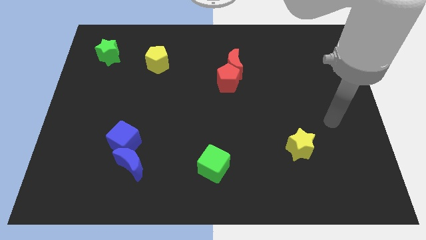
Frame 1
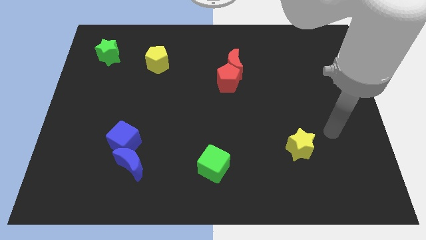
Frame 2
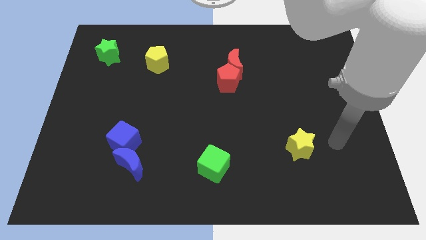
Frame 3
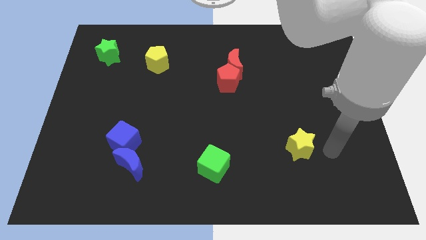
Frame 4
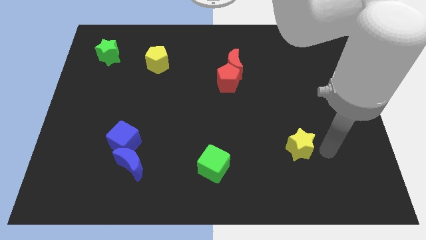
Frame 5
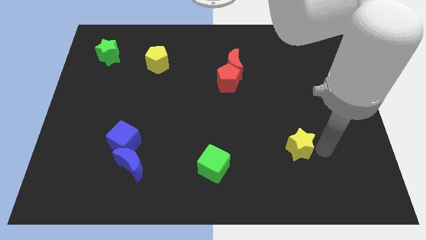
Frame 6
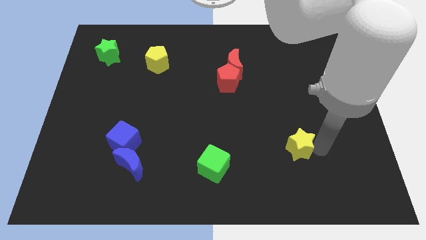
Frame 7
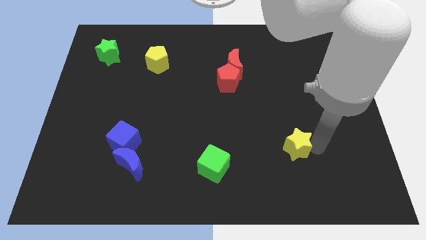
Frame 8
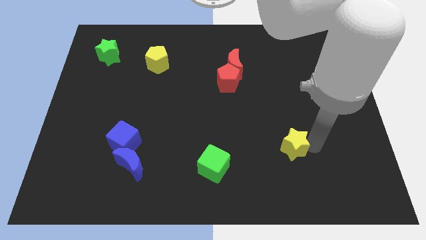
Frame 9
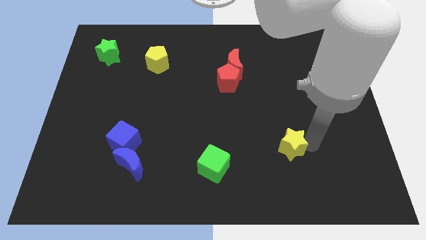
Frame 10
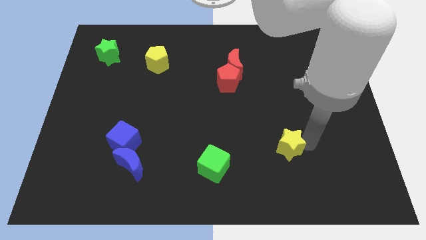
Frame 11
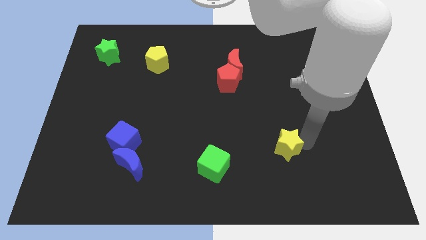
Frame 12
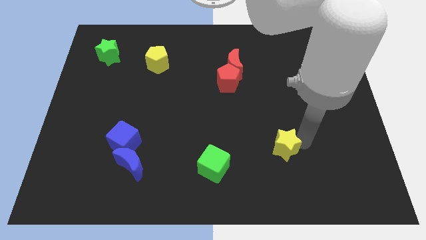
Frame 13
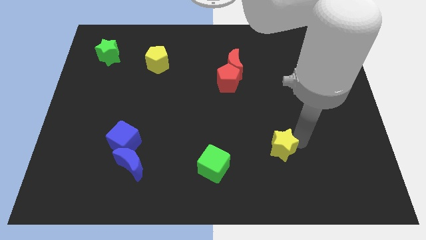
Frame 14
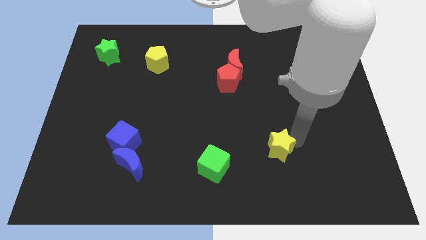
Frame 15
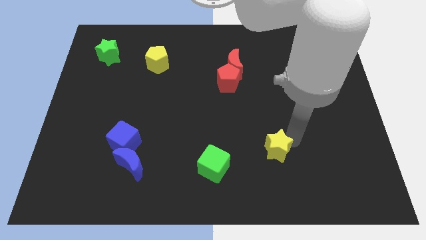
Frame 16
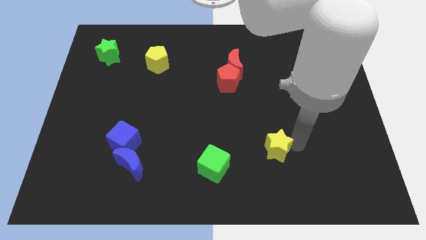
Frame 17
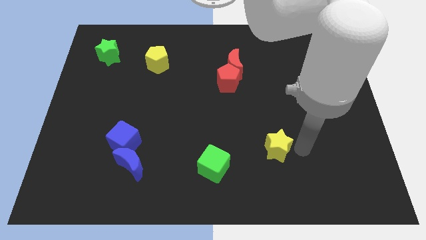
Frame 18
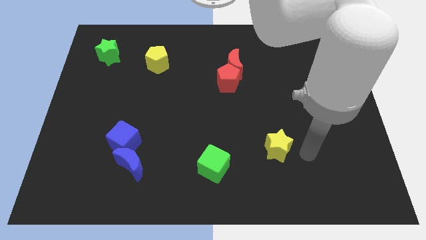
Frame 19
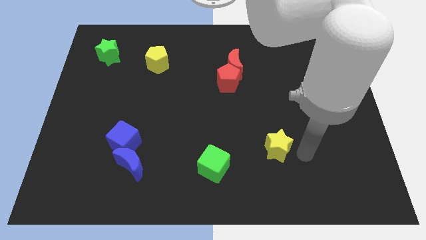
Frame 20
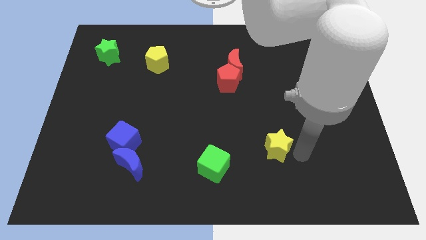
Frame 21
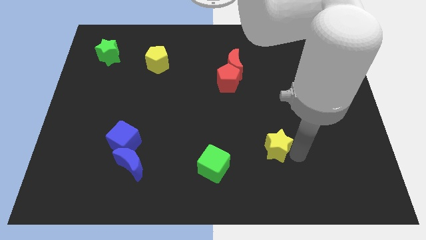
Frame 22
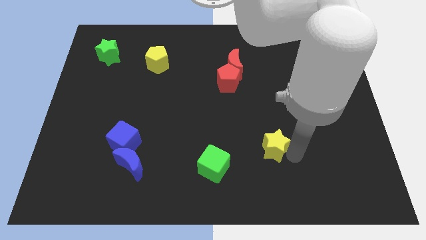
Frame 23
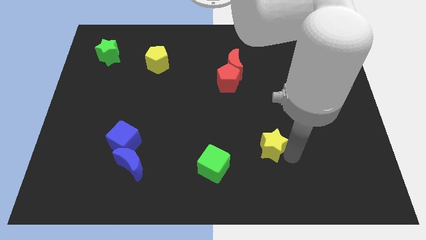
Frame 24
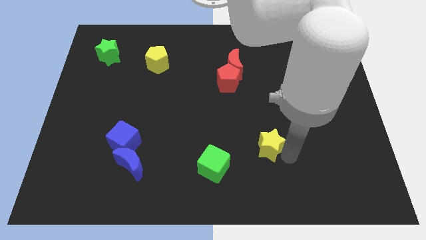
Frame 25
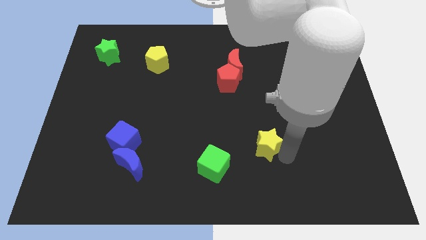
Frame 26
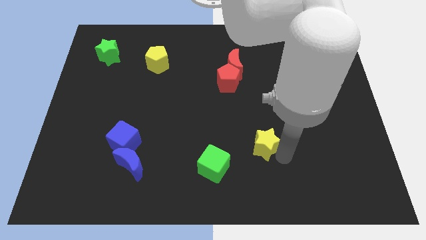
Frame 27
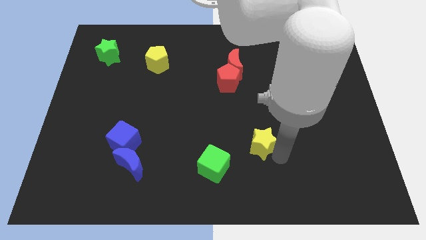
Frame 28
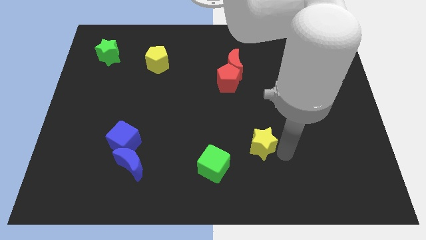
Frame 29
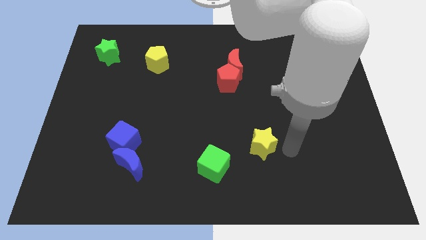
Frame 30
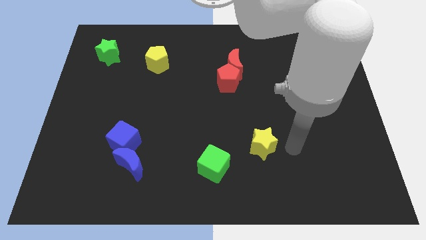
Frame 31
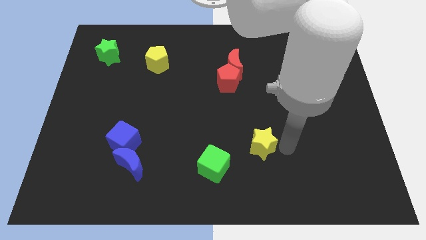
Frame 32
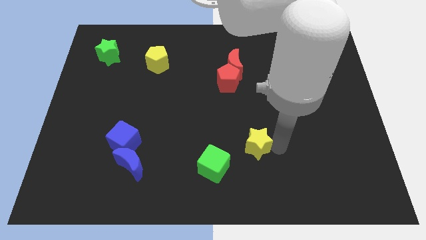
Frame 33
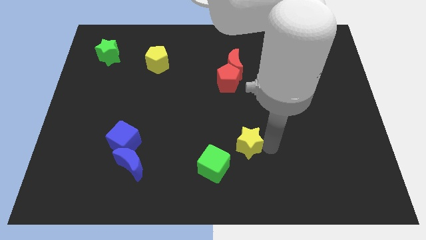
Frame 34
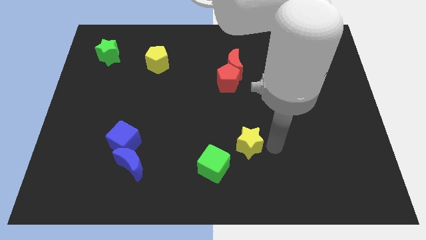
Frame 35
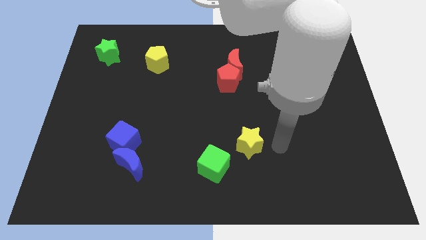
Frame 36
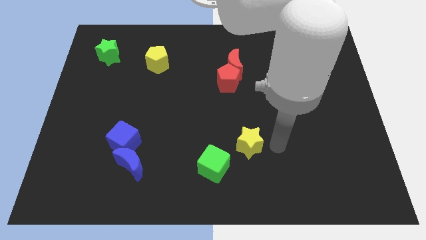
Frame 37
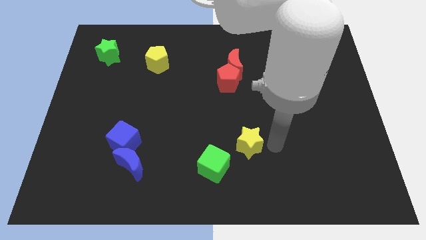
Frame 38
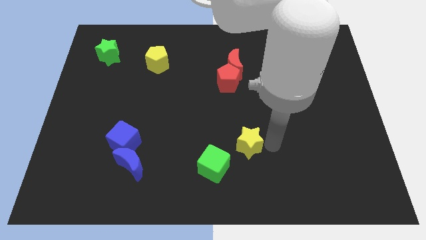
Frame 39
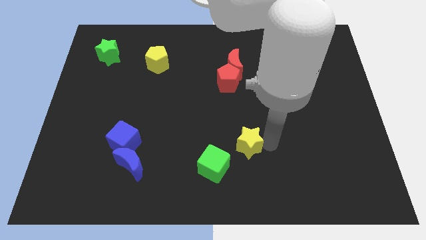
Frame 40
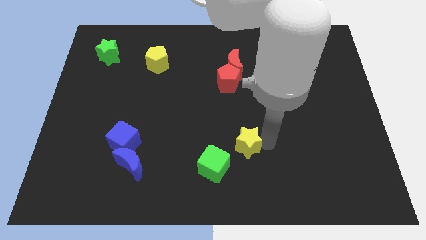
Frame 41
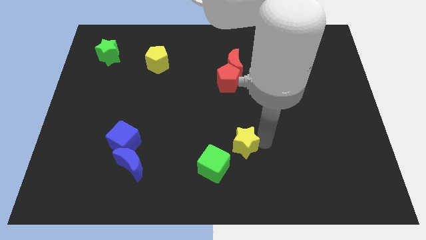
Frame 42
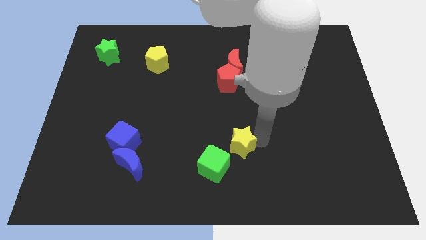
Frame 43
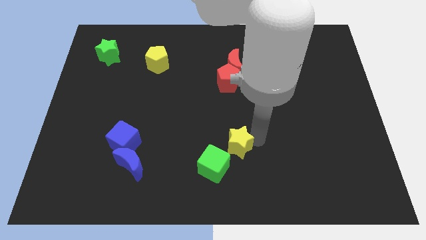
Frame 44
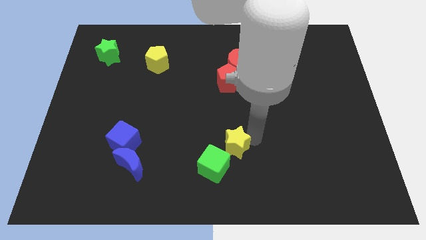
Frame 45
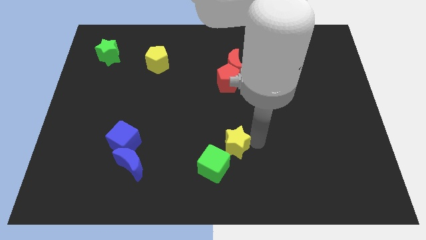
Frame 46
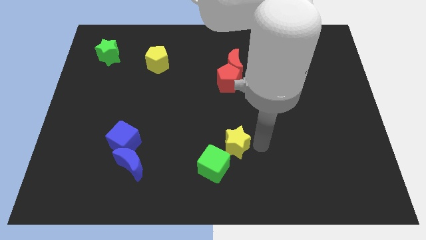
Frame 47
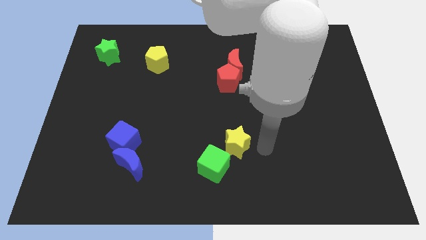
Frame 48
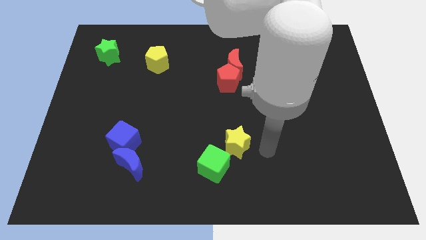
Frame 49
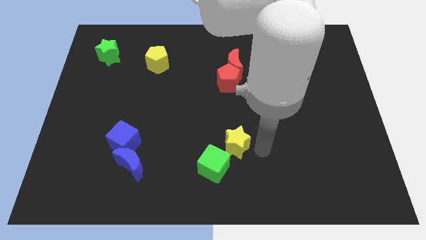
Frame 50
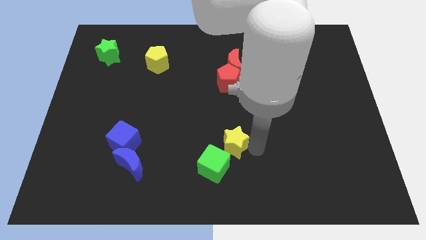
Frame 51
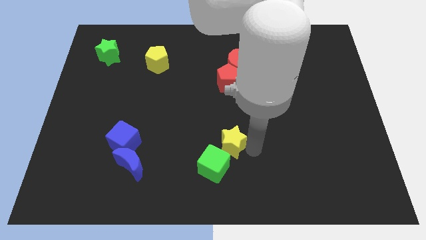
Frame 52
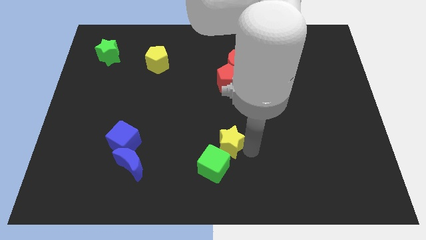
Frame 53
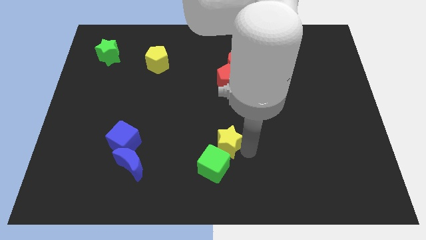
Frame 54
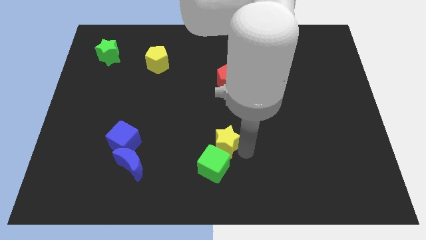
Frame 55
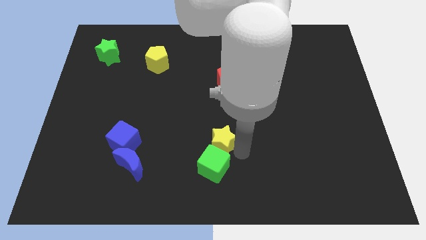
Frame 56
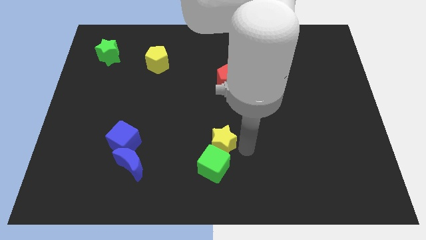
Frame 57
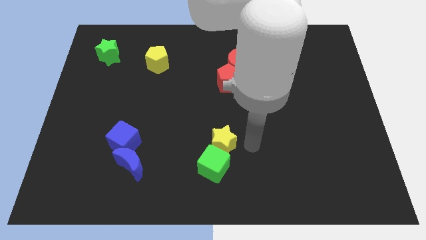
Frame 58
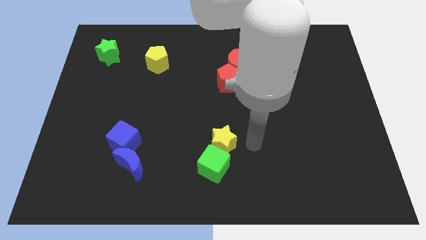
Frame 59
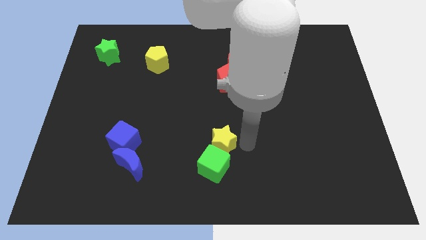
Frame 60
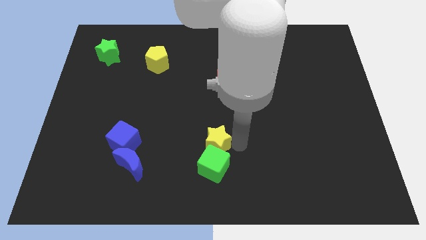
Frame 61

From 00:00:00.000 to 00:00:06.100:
push the yellow star to the top left of the green cube

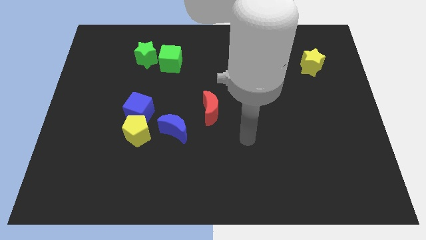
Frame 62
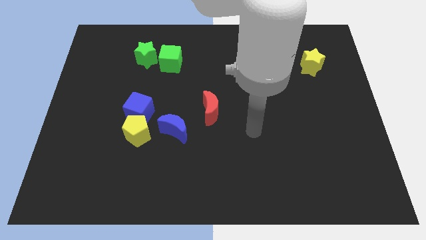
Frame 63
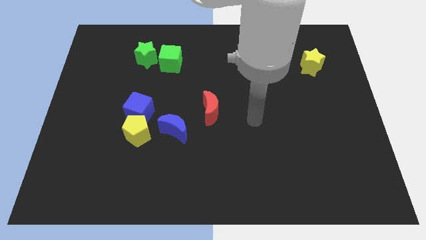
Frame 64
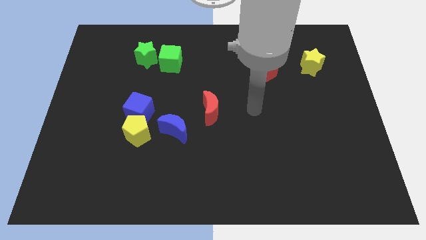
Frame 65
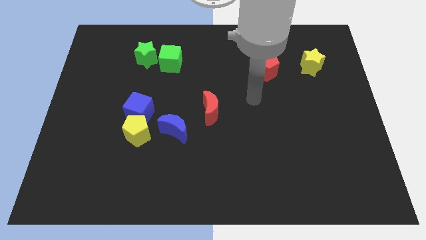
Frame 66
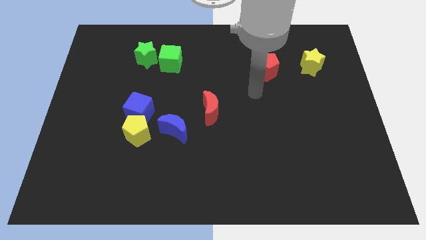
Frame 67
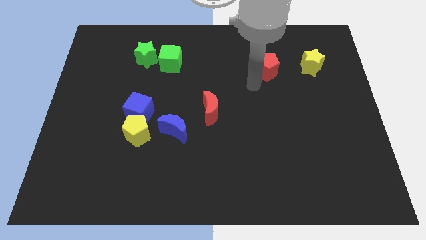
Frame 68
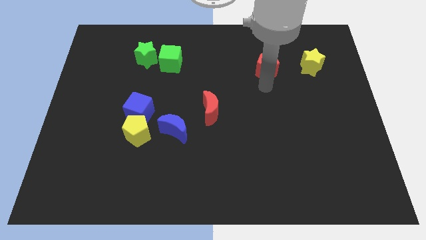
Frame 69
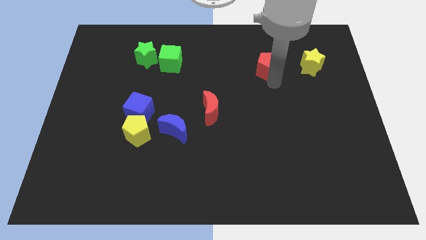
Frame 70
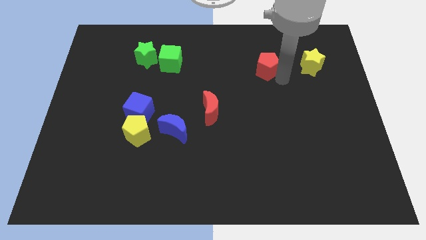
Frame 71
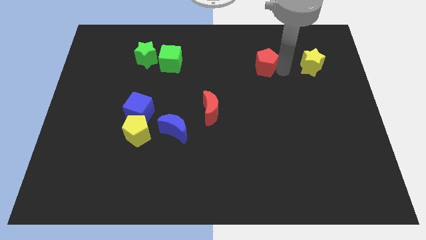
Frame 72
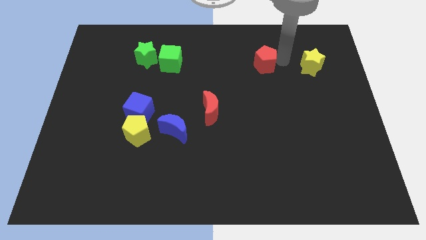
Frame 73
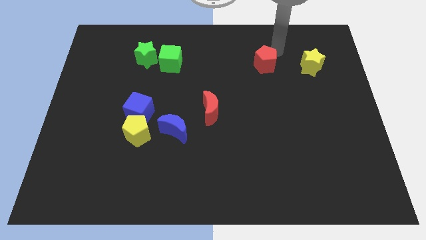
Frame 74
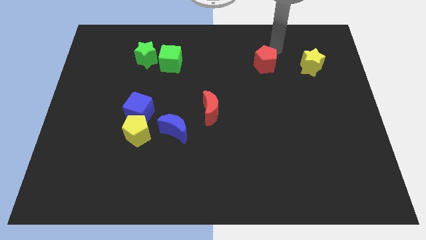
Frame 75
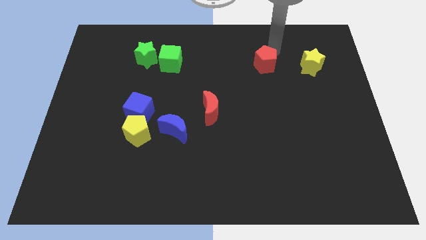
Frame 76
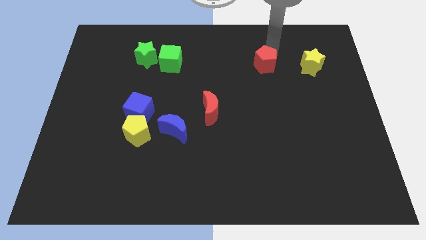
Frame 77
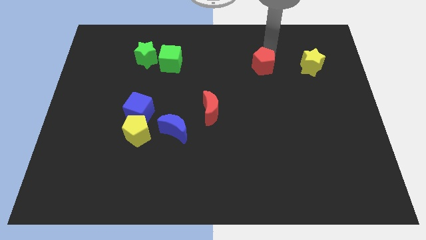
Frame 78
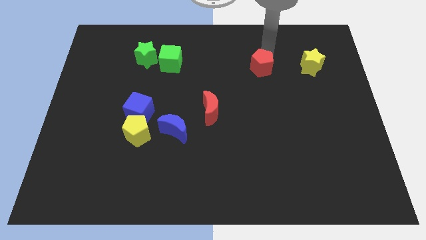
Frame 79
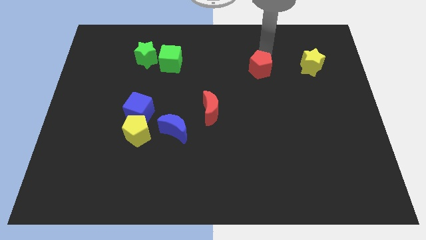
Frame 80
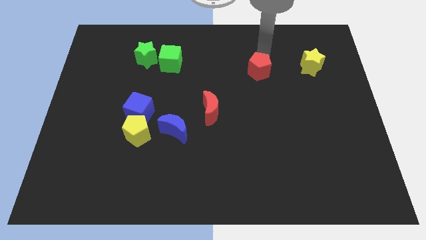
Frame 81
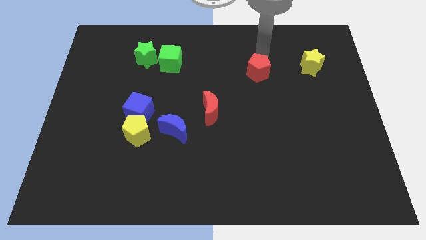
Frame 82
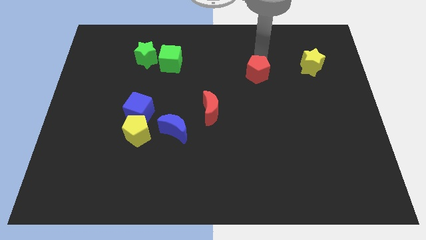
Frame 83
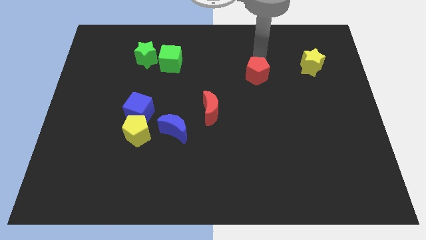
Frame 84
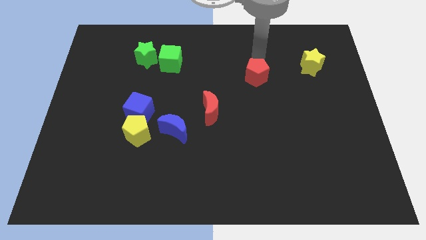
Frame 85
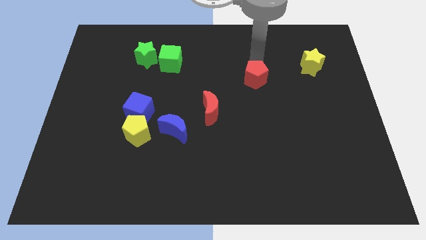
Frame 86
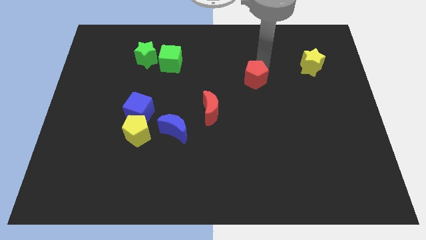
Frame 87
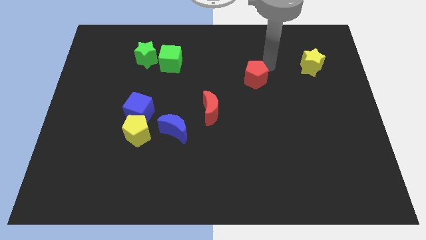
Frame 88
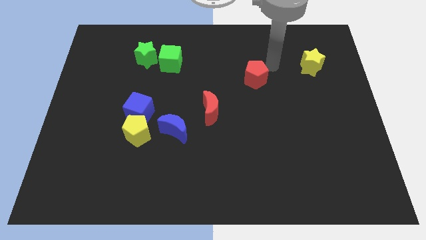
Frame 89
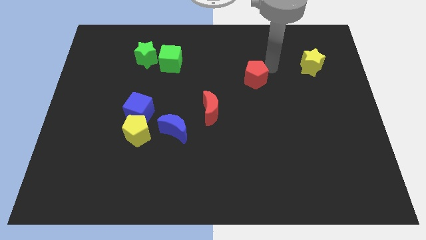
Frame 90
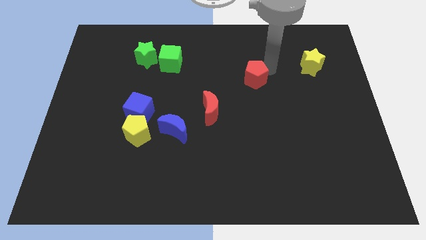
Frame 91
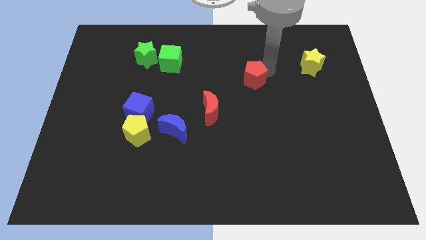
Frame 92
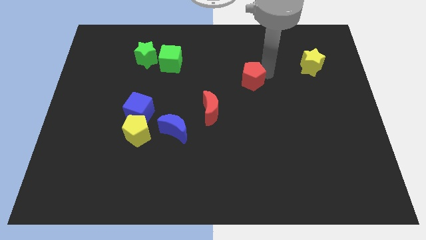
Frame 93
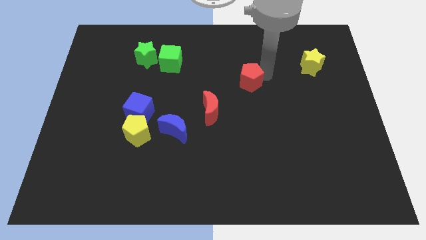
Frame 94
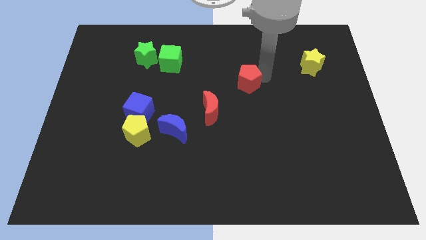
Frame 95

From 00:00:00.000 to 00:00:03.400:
put the red pentagon to the top right of the red moon
